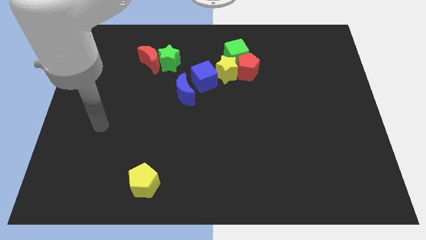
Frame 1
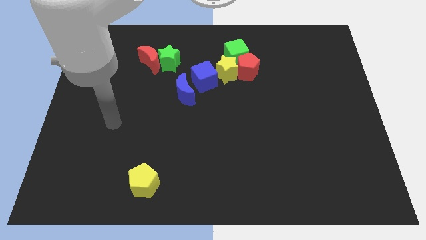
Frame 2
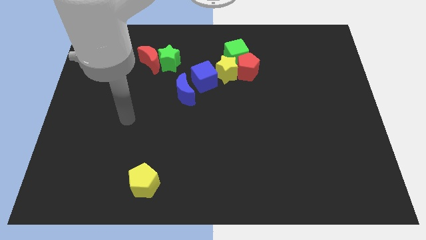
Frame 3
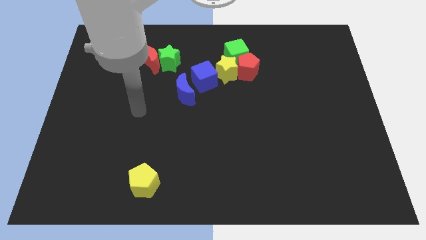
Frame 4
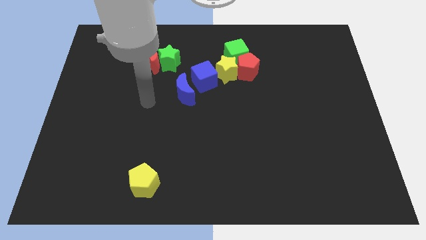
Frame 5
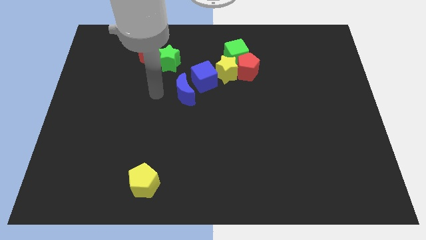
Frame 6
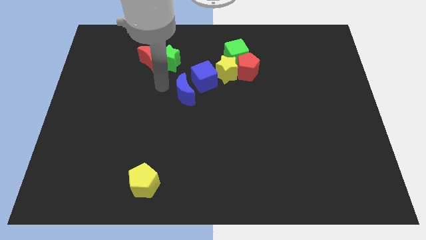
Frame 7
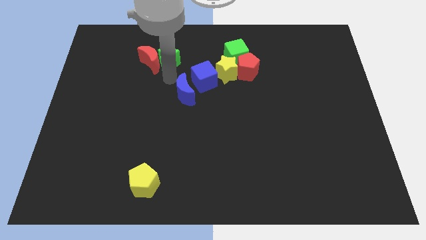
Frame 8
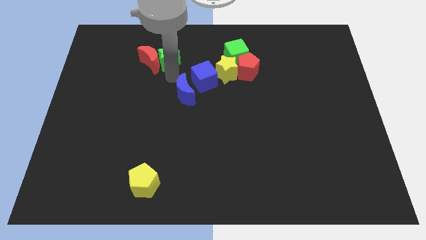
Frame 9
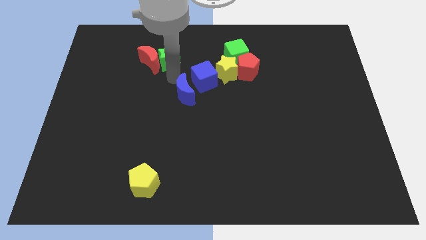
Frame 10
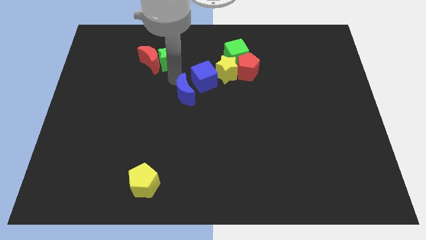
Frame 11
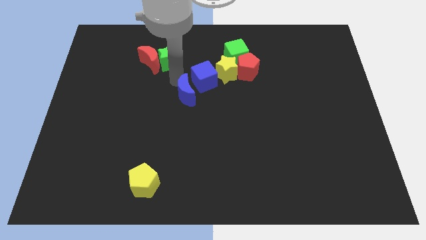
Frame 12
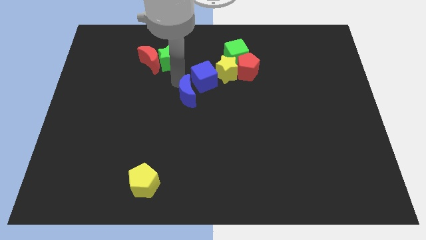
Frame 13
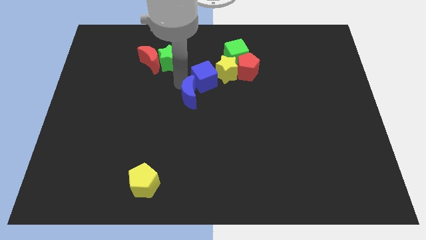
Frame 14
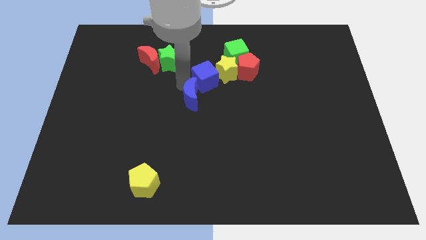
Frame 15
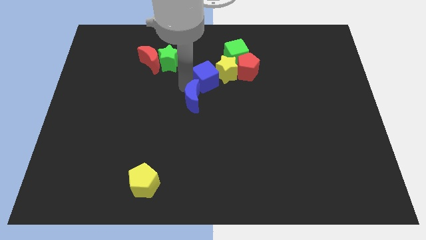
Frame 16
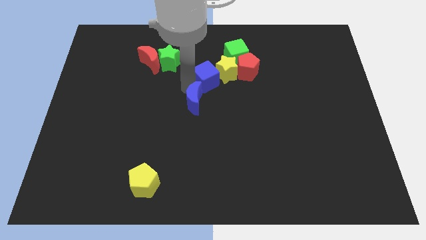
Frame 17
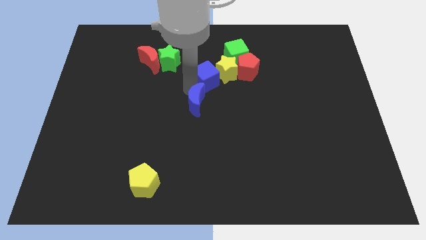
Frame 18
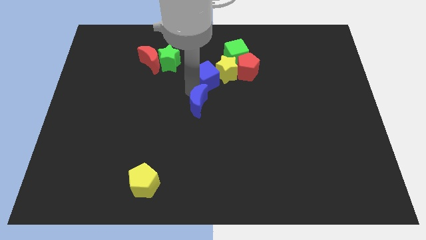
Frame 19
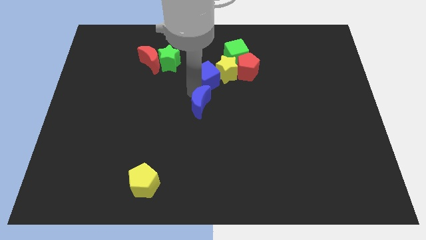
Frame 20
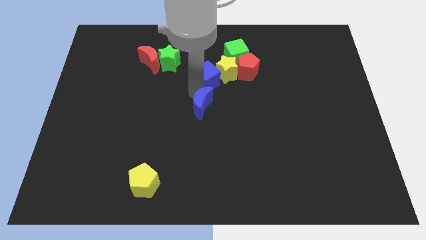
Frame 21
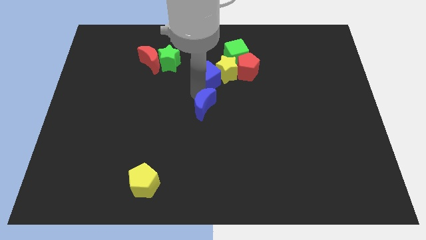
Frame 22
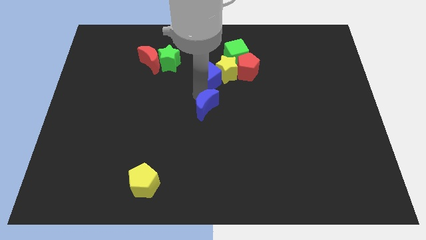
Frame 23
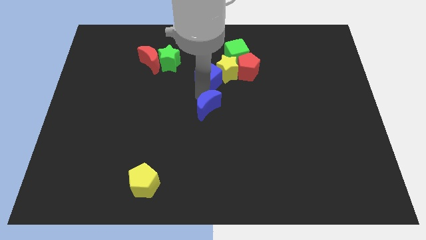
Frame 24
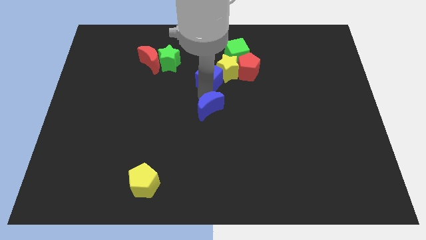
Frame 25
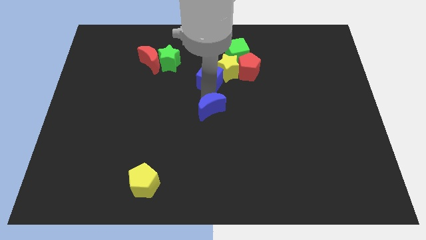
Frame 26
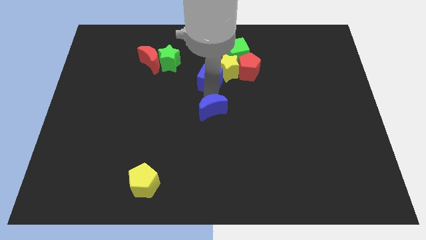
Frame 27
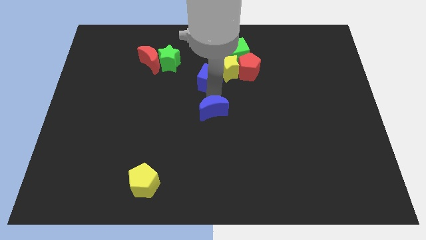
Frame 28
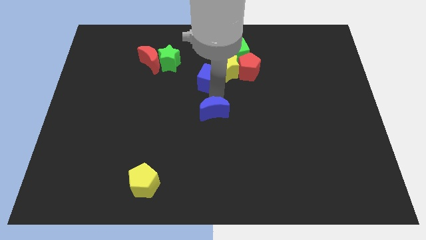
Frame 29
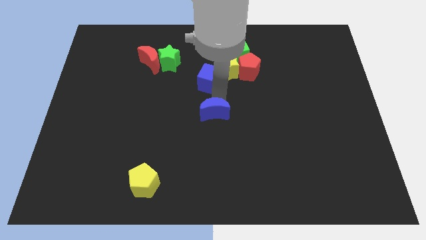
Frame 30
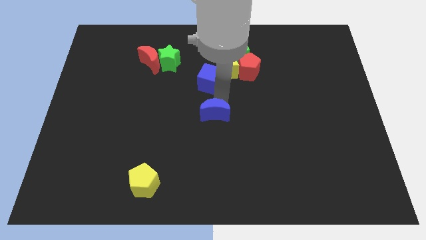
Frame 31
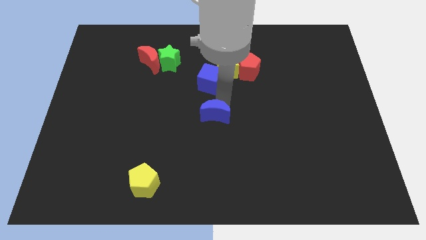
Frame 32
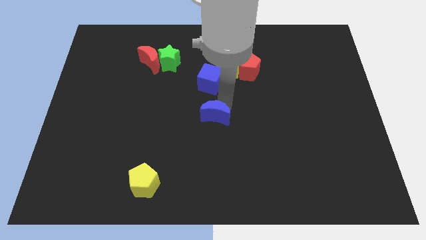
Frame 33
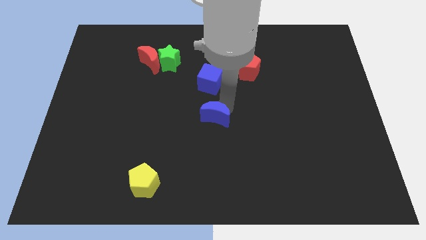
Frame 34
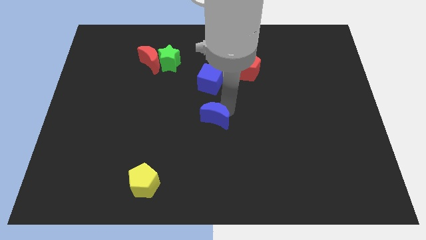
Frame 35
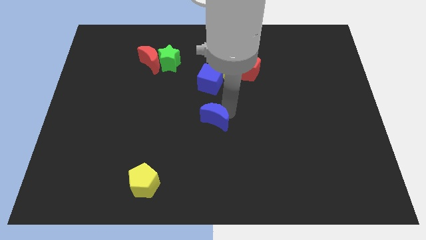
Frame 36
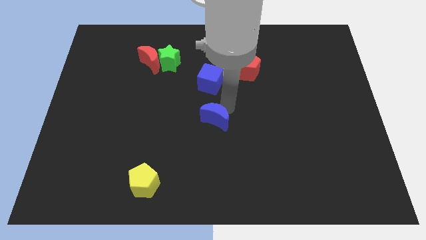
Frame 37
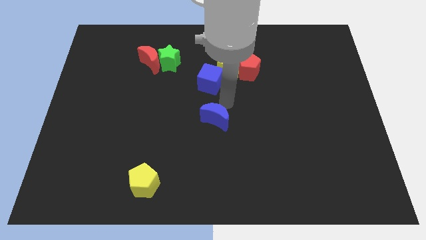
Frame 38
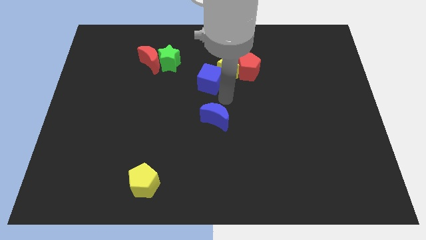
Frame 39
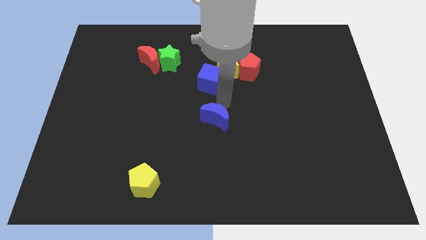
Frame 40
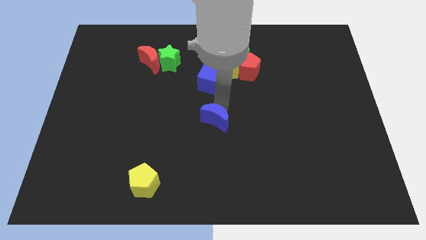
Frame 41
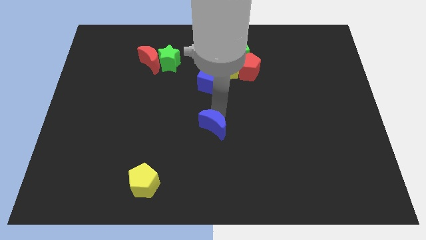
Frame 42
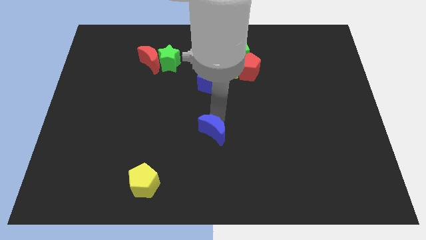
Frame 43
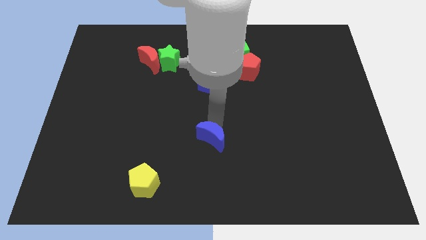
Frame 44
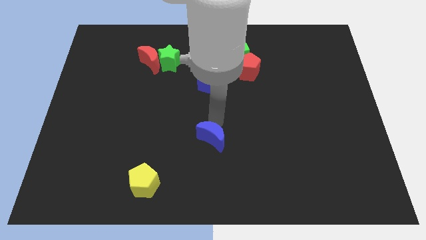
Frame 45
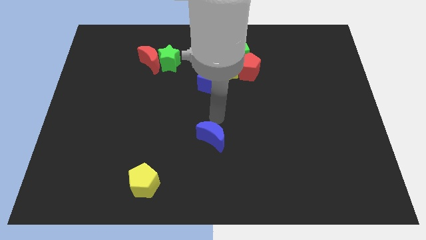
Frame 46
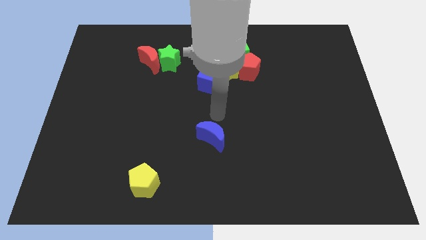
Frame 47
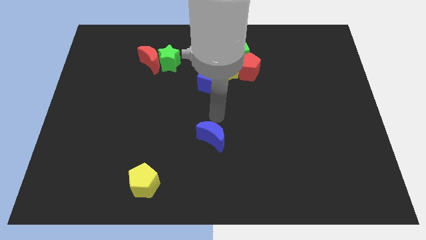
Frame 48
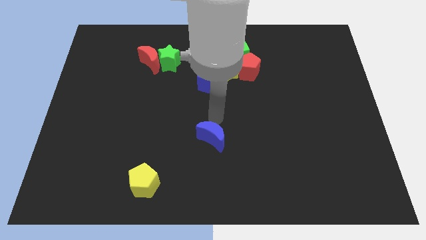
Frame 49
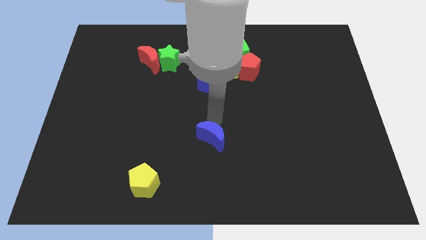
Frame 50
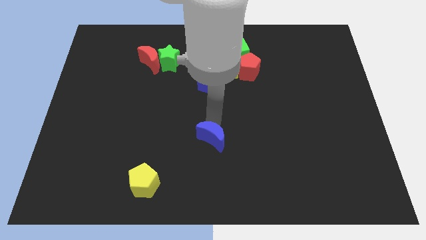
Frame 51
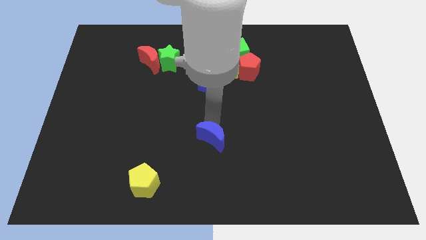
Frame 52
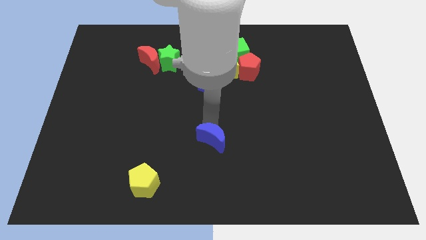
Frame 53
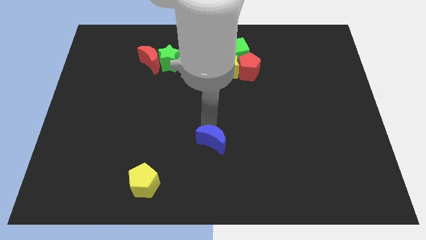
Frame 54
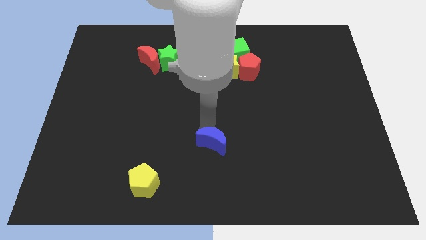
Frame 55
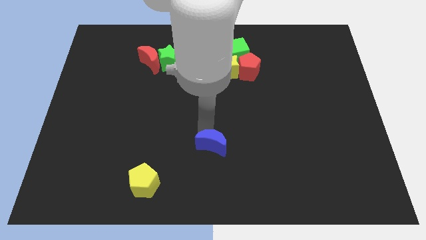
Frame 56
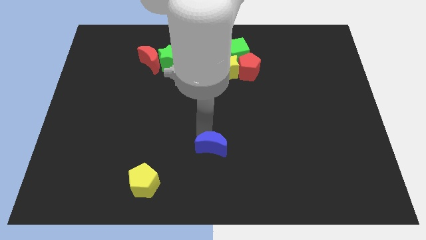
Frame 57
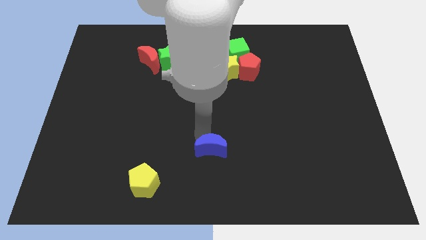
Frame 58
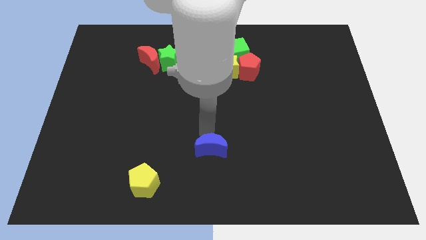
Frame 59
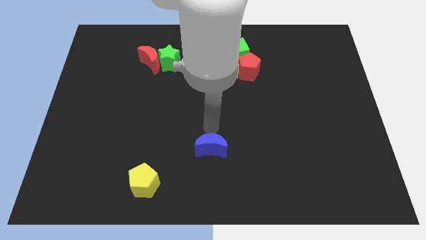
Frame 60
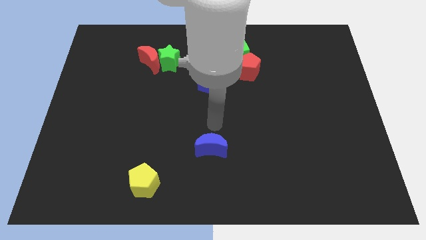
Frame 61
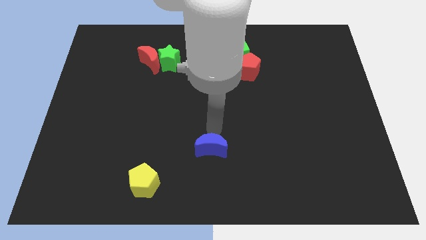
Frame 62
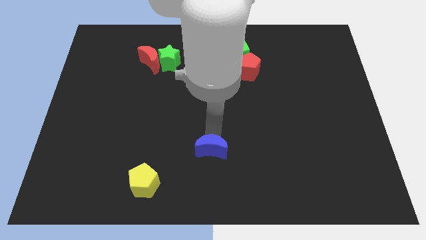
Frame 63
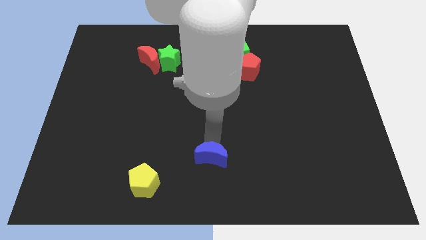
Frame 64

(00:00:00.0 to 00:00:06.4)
slide the blue moon to the bottom side

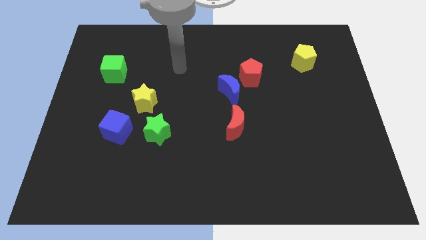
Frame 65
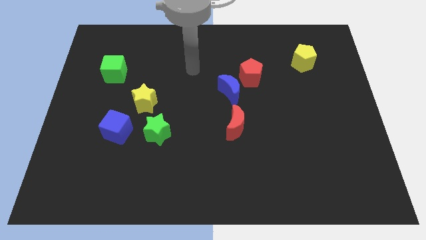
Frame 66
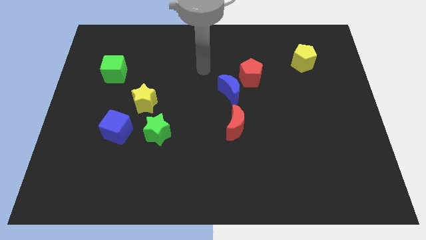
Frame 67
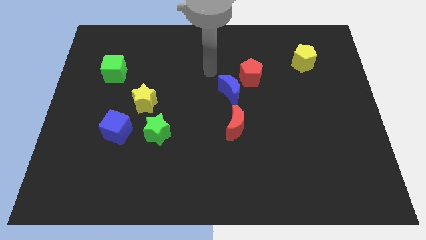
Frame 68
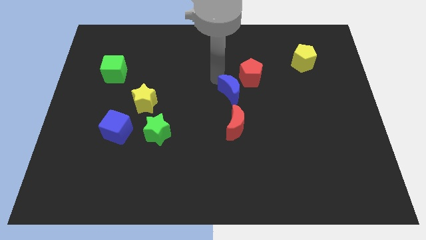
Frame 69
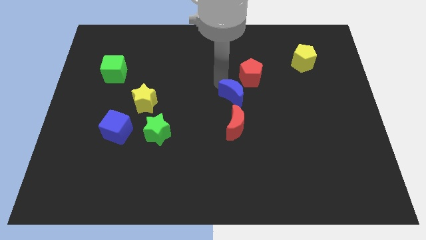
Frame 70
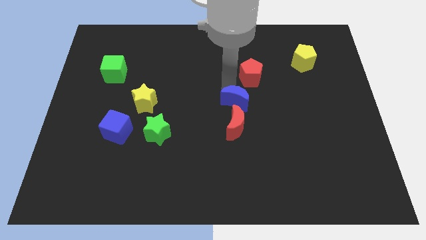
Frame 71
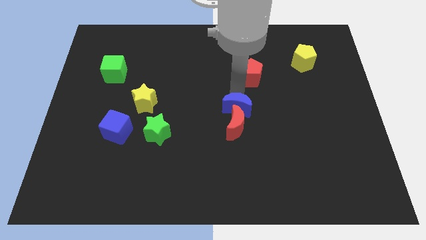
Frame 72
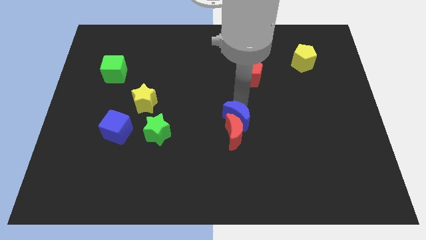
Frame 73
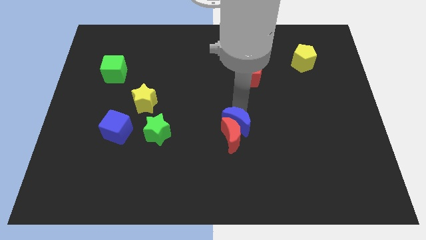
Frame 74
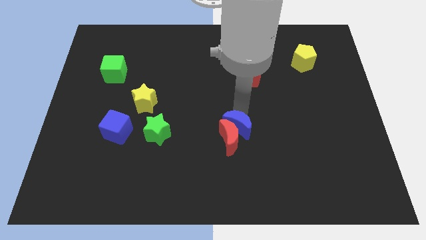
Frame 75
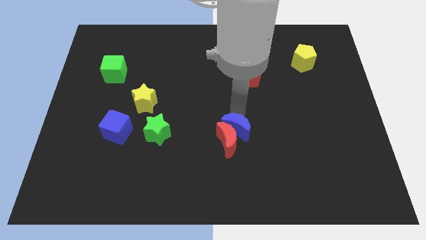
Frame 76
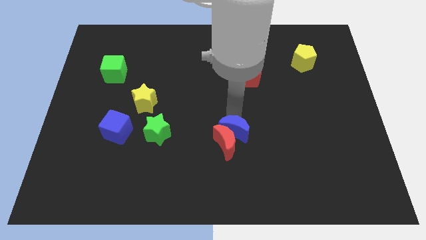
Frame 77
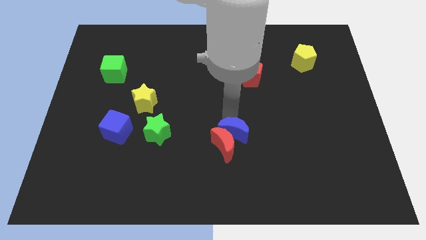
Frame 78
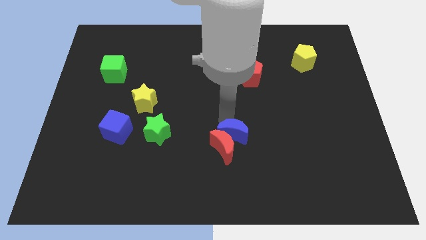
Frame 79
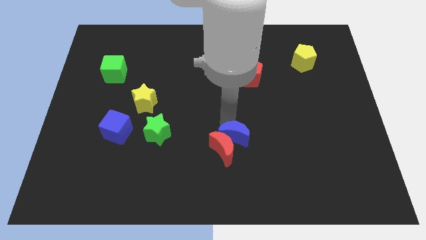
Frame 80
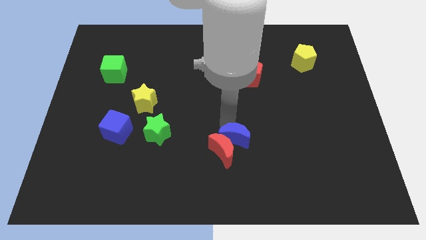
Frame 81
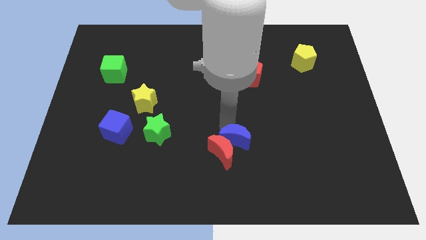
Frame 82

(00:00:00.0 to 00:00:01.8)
put the red moon to the bottom side
